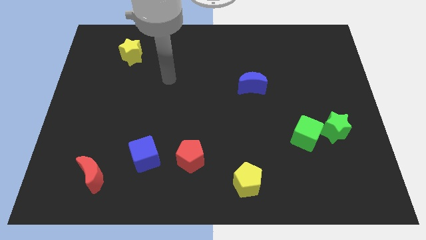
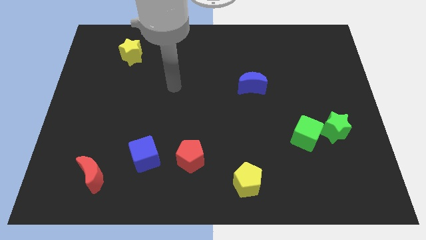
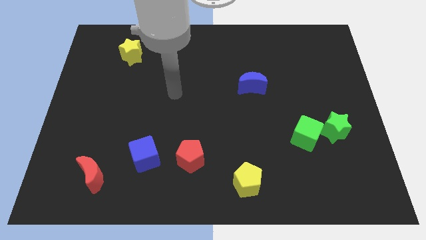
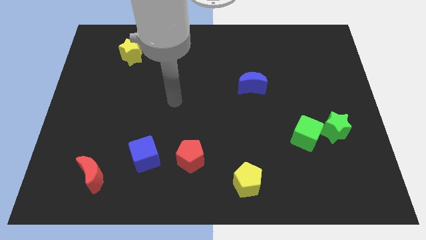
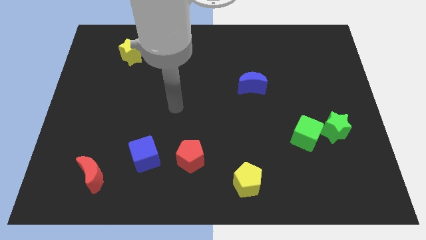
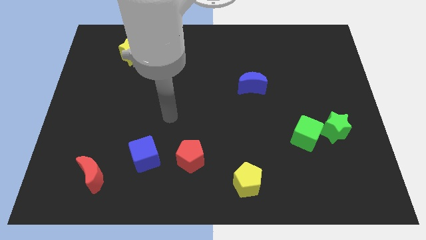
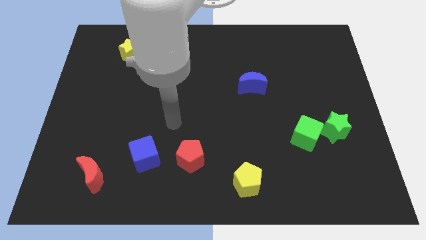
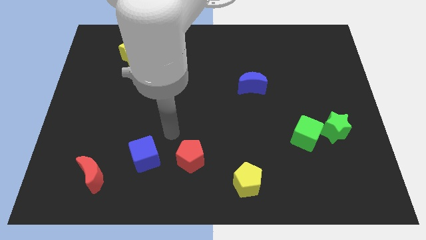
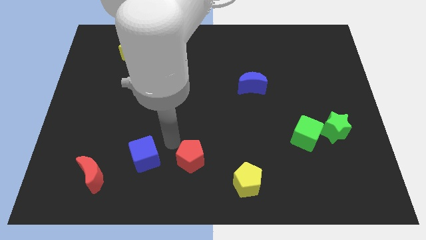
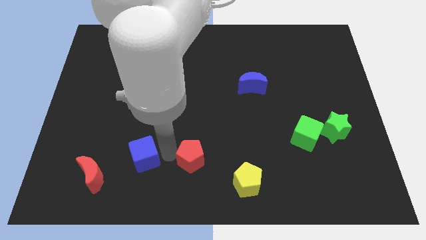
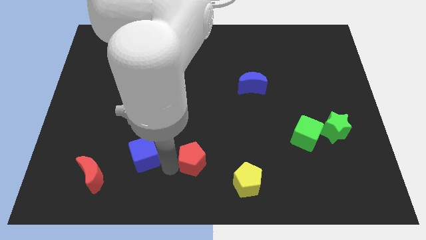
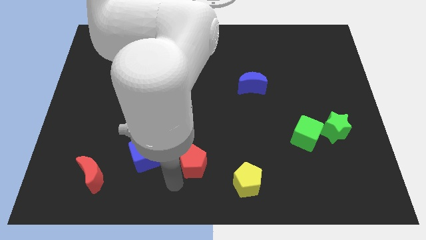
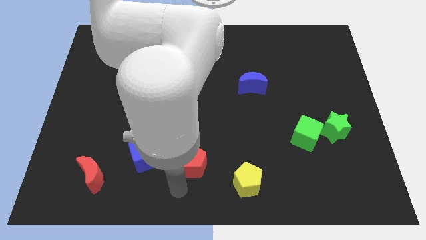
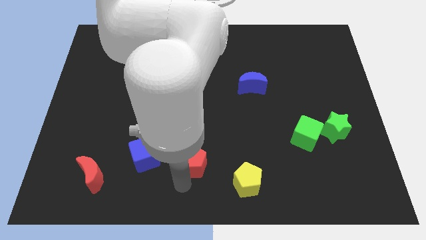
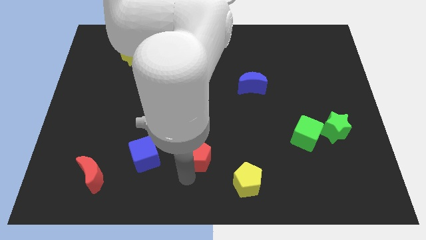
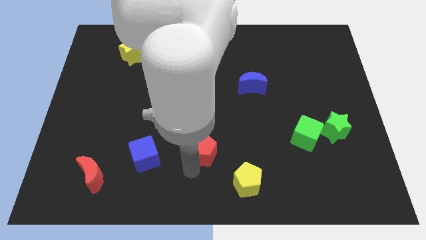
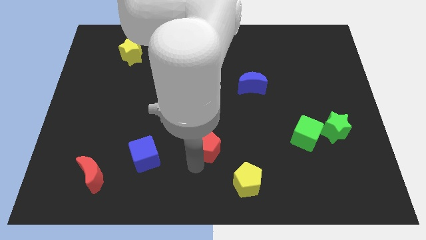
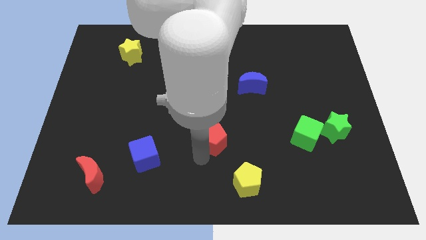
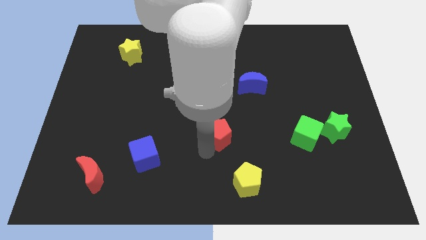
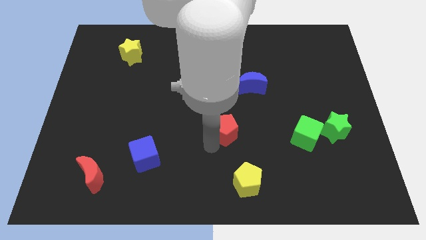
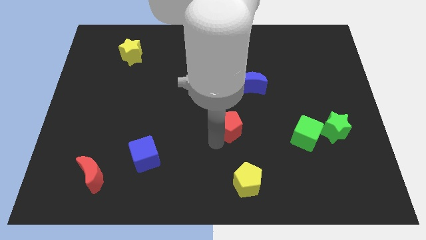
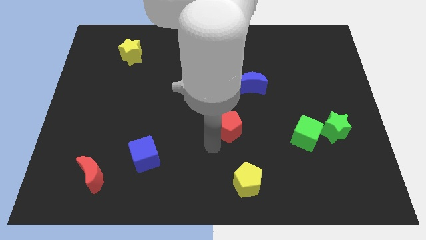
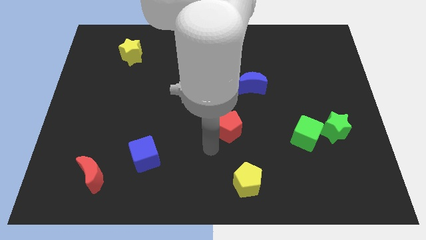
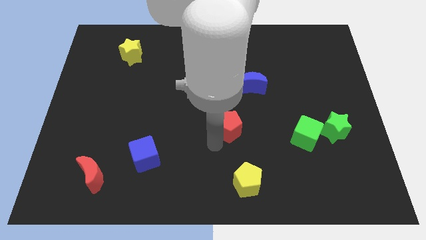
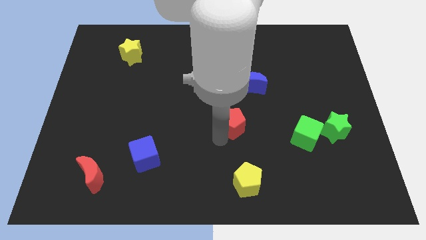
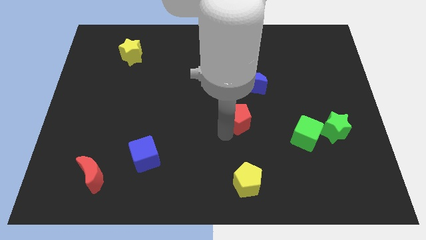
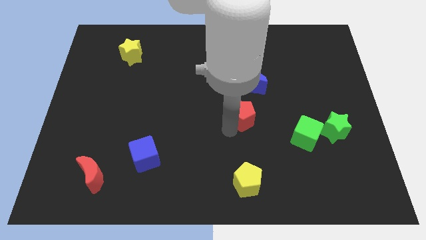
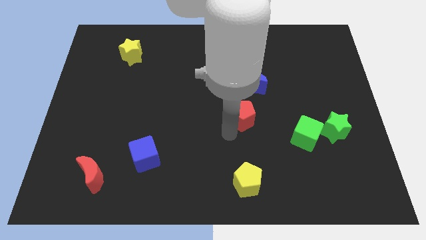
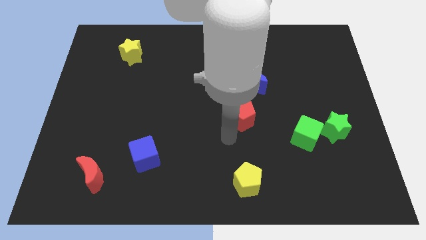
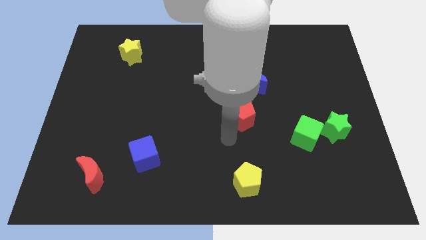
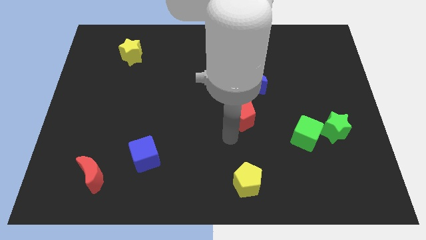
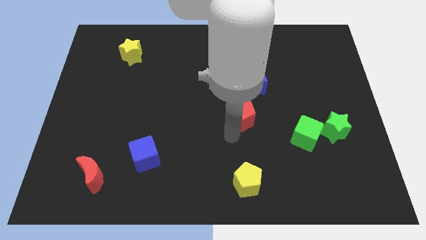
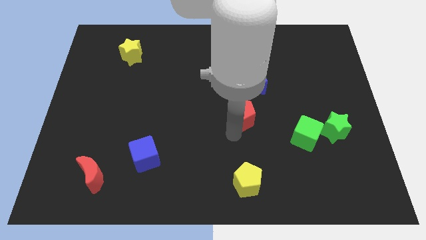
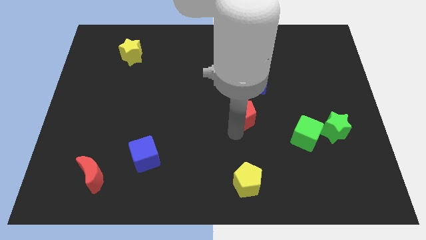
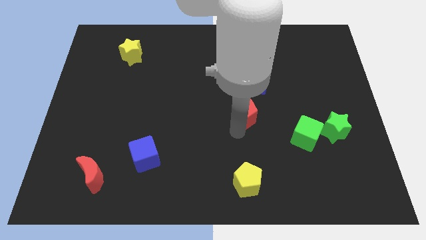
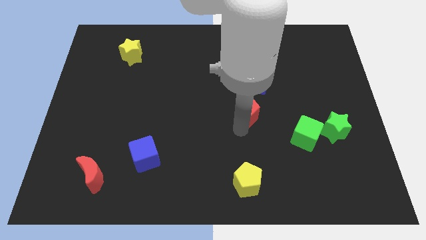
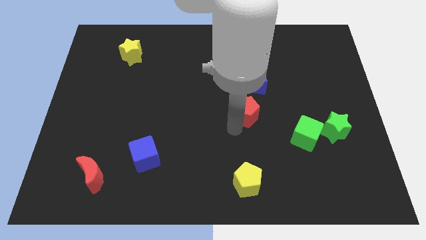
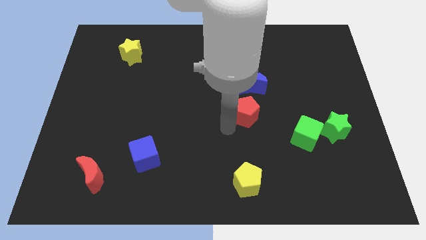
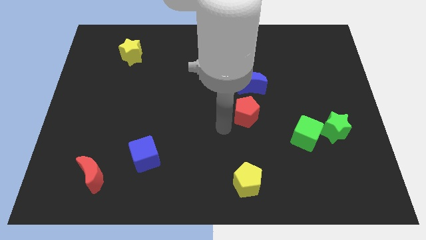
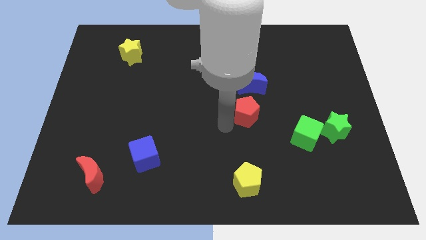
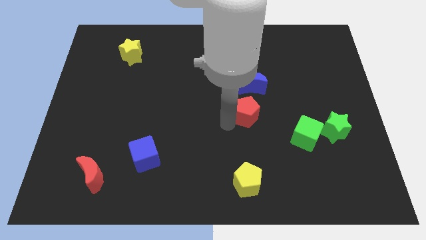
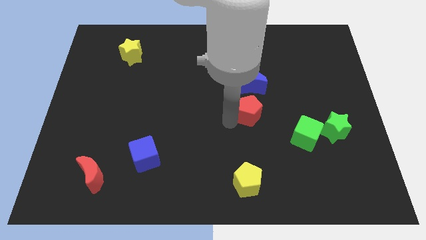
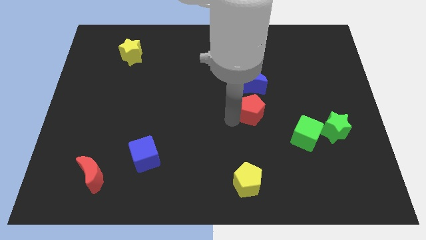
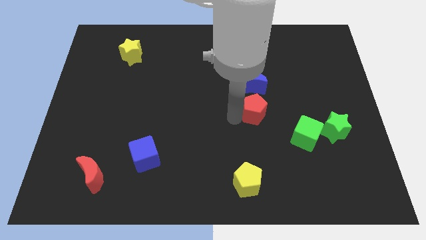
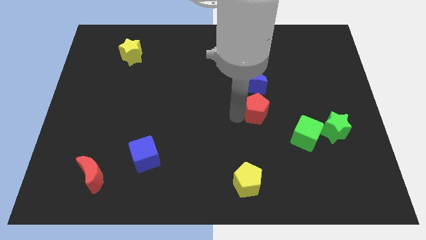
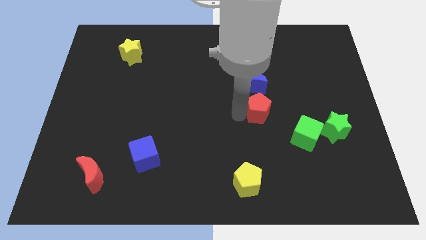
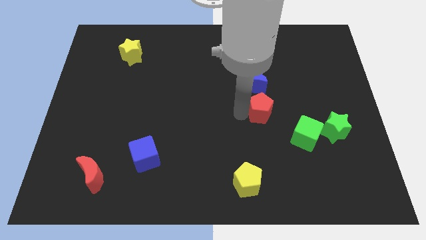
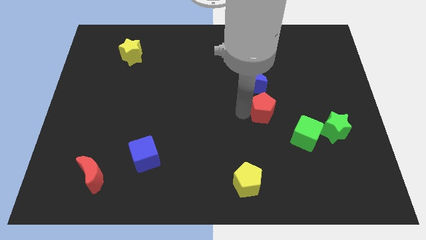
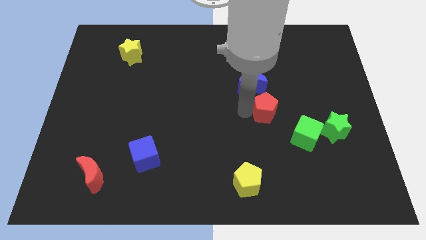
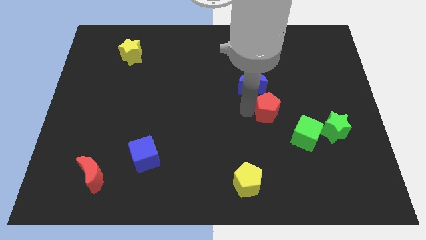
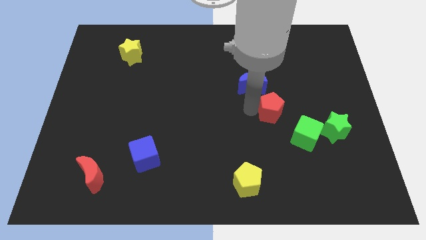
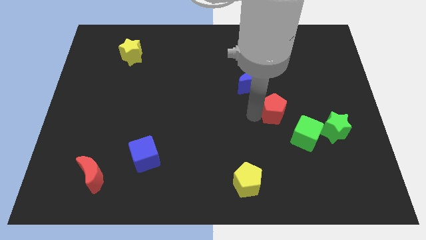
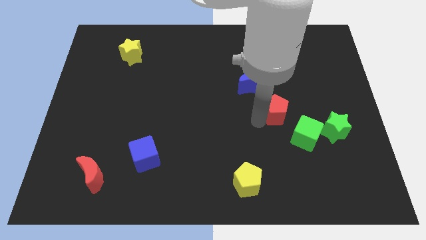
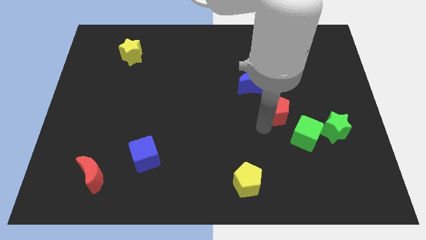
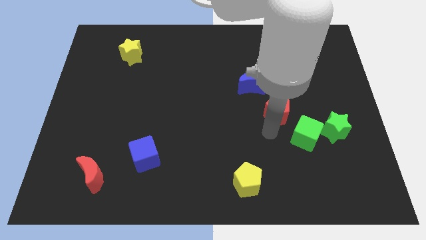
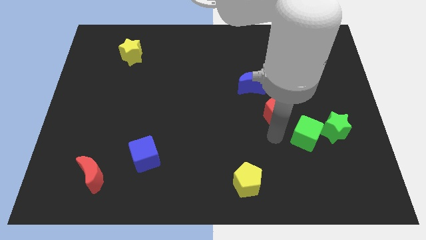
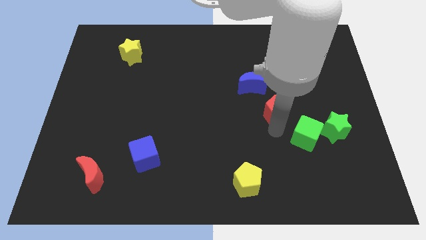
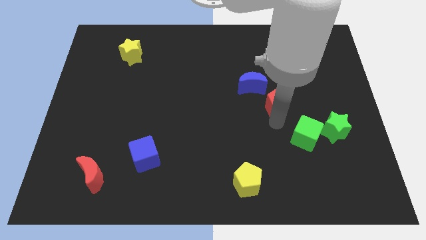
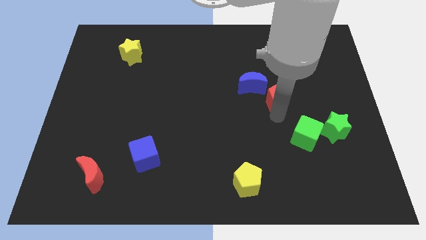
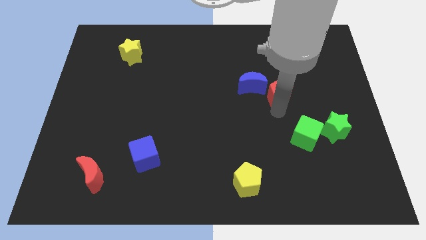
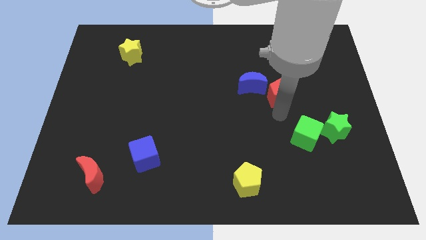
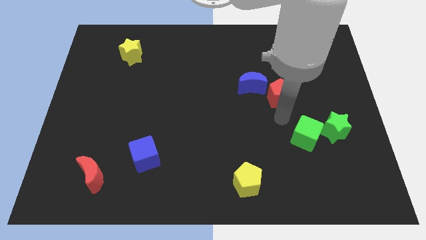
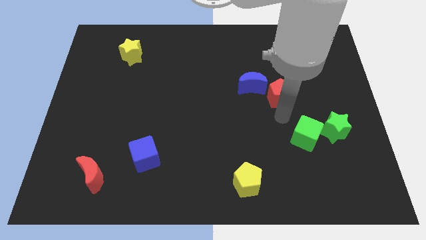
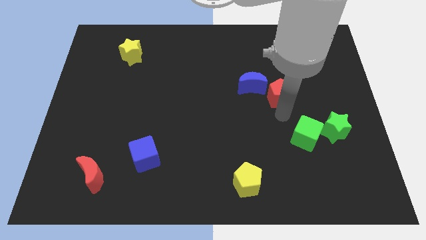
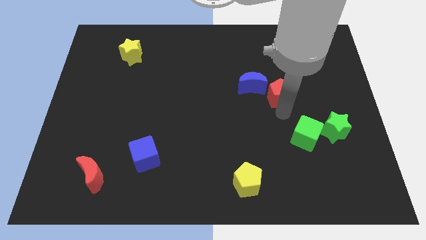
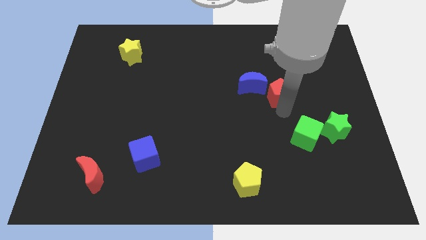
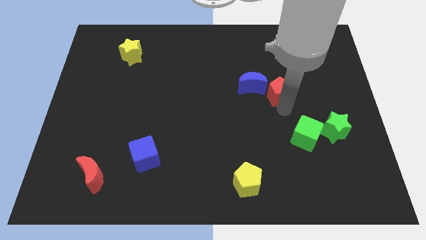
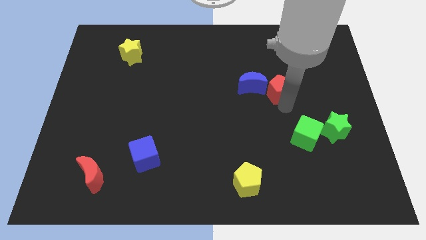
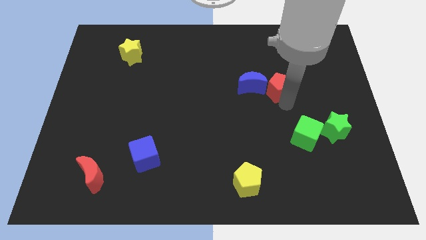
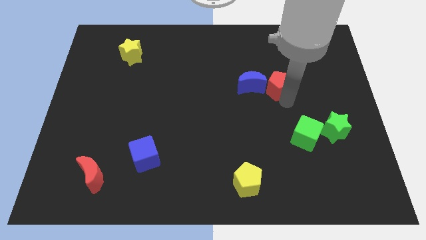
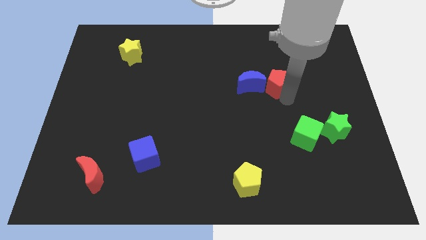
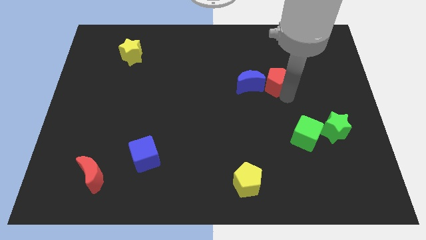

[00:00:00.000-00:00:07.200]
put the red pentagon to the top right of the blue moon
